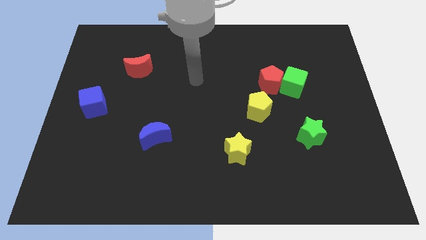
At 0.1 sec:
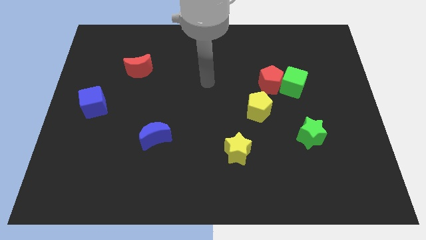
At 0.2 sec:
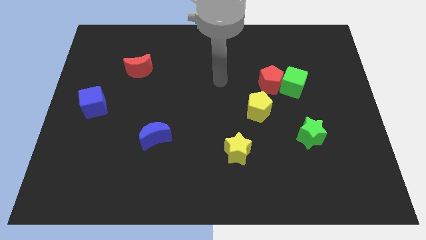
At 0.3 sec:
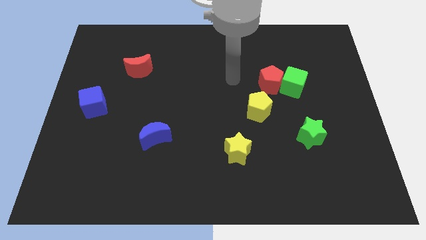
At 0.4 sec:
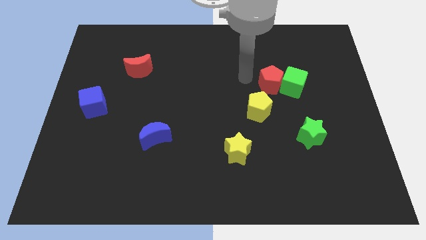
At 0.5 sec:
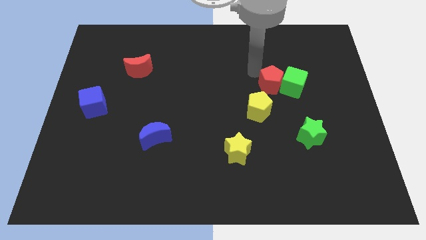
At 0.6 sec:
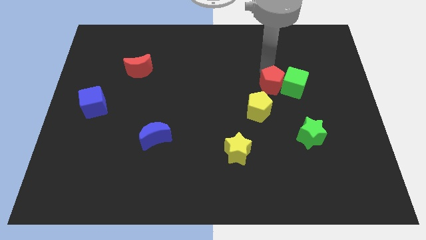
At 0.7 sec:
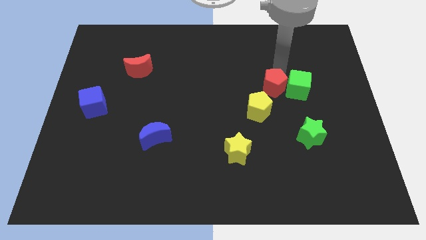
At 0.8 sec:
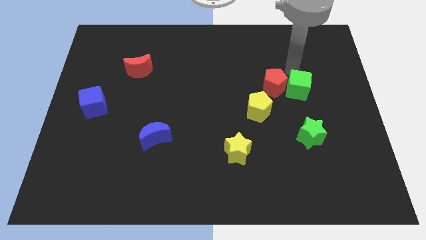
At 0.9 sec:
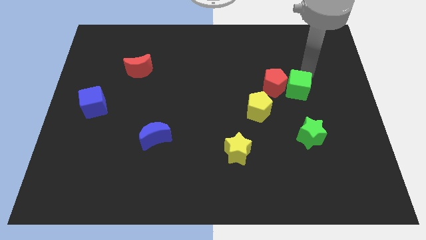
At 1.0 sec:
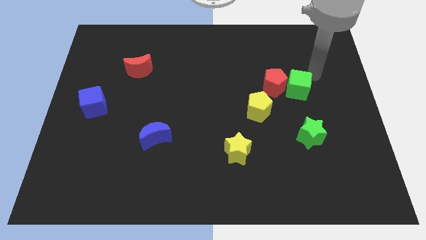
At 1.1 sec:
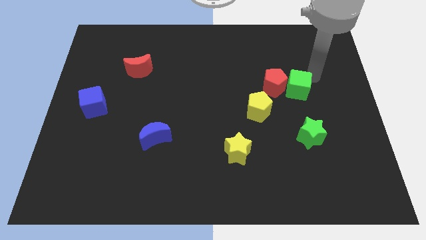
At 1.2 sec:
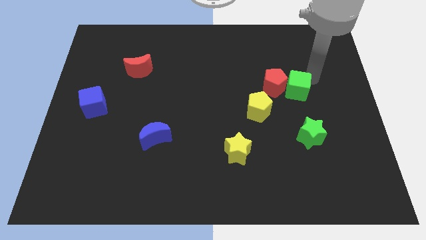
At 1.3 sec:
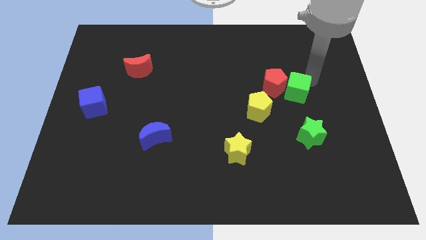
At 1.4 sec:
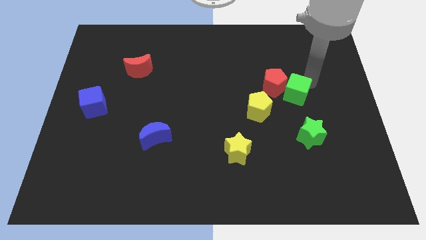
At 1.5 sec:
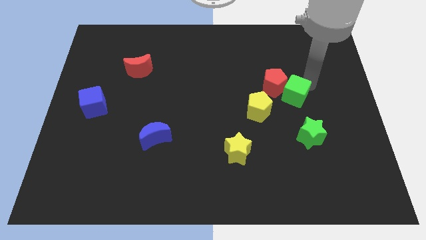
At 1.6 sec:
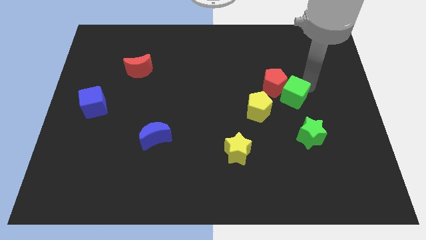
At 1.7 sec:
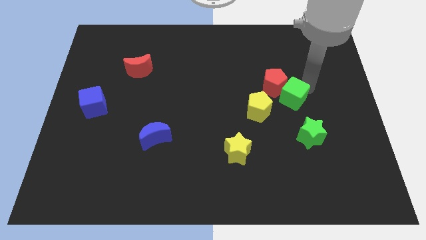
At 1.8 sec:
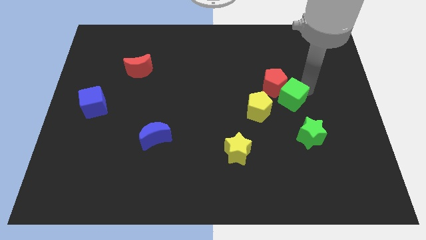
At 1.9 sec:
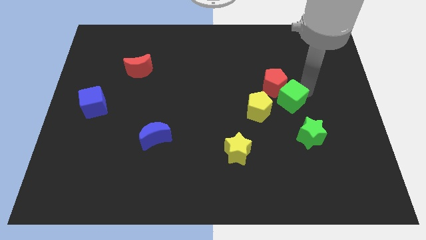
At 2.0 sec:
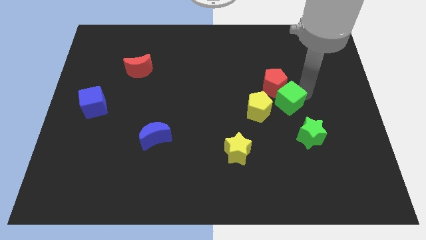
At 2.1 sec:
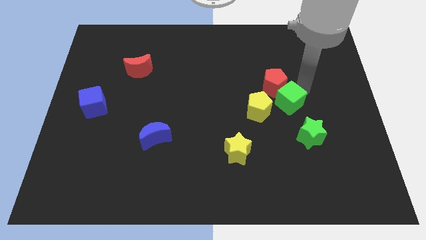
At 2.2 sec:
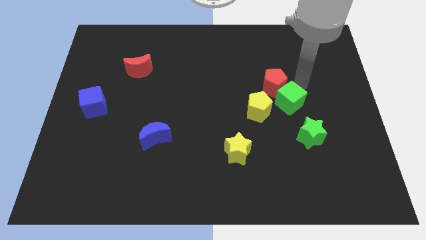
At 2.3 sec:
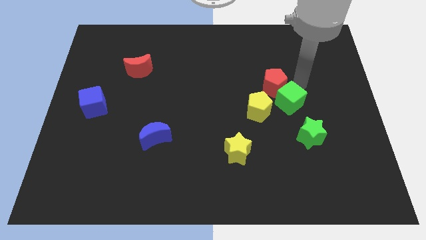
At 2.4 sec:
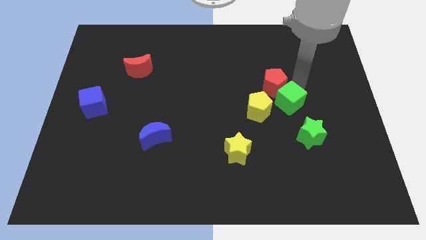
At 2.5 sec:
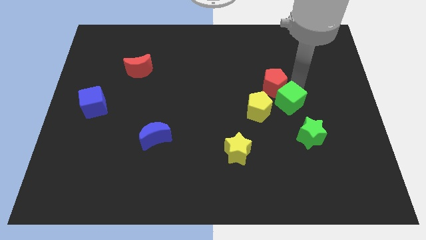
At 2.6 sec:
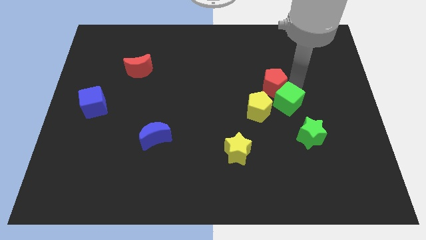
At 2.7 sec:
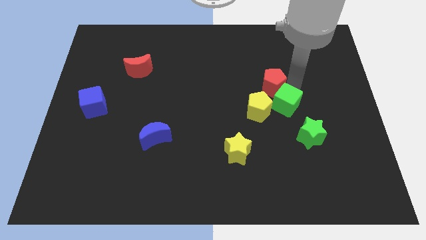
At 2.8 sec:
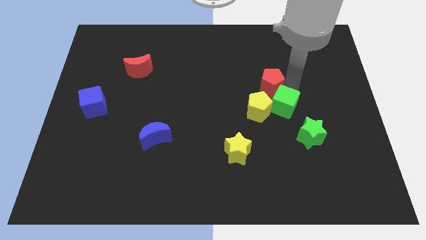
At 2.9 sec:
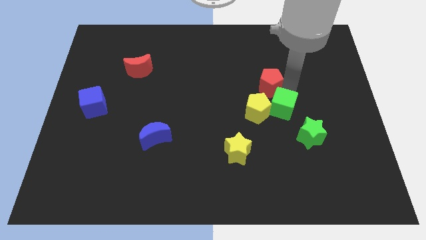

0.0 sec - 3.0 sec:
slightly move the green cube downwards and then left

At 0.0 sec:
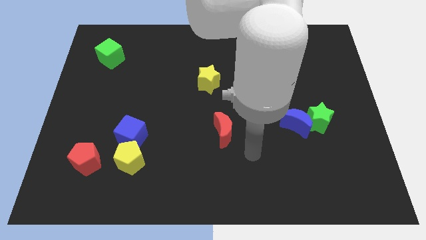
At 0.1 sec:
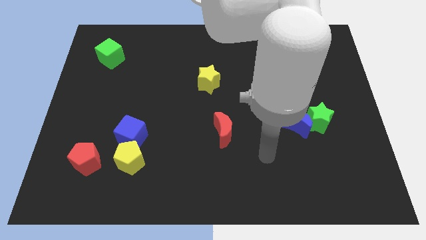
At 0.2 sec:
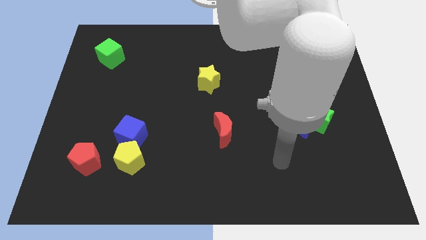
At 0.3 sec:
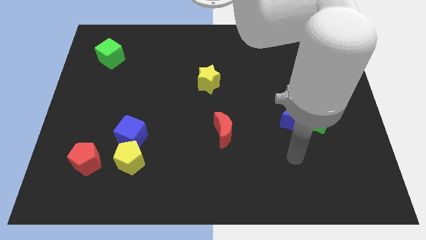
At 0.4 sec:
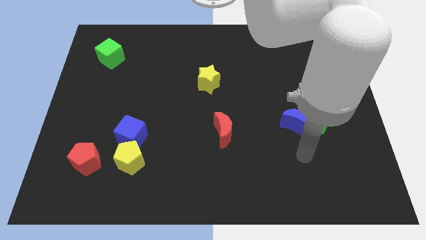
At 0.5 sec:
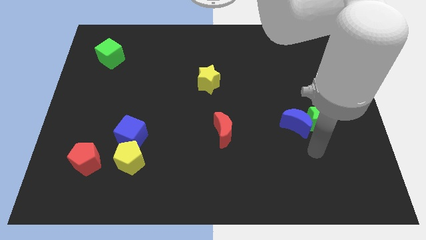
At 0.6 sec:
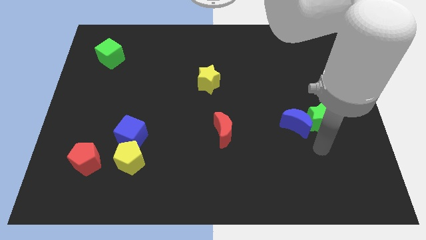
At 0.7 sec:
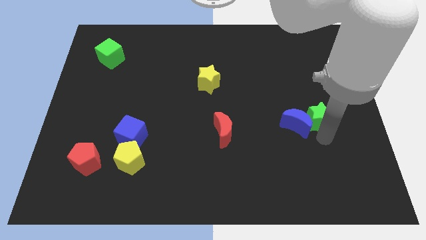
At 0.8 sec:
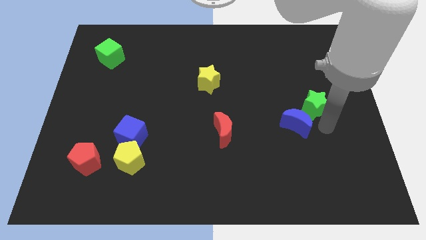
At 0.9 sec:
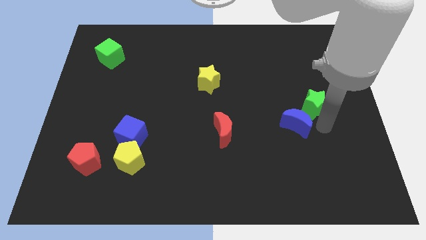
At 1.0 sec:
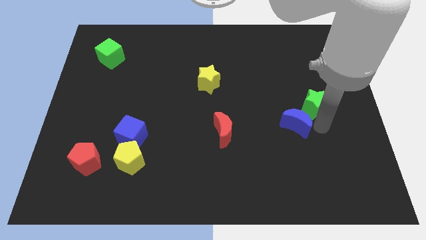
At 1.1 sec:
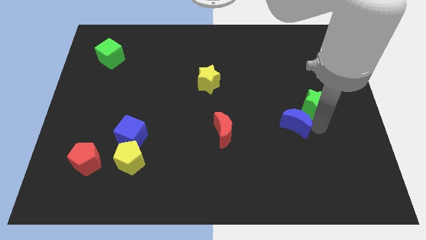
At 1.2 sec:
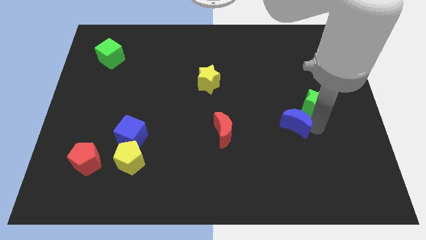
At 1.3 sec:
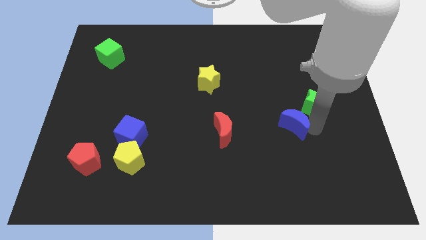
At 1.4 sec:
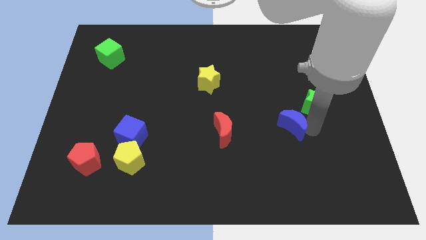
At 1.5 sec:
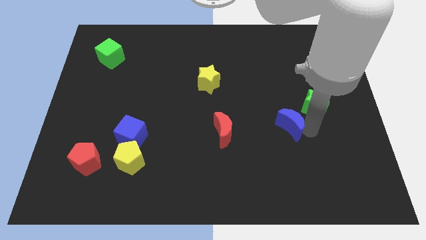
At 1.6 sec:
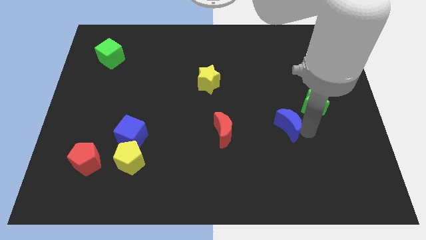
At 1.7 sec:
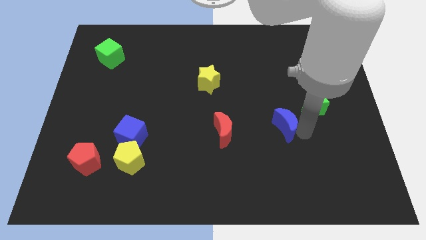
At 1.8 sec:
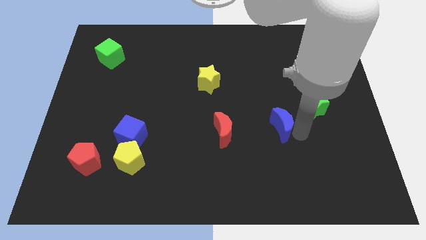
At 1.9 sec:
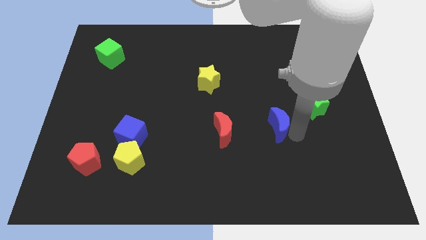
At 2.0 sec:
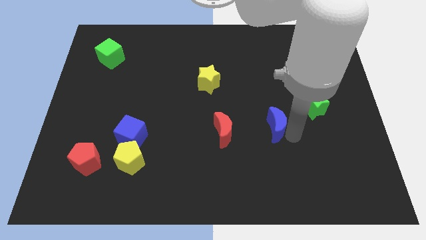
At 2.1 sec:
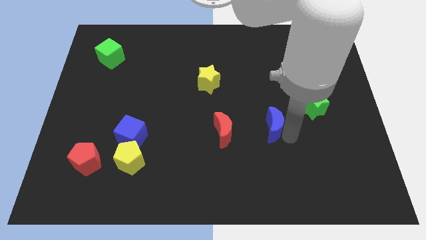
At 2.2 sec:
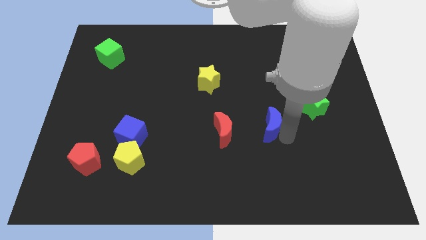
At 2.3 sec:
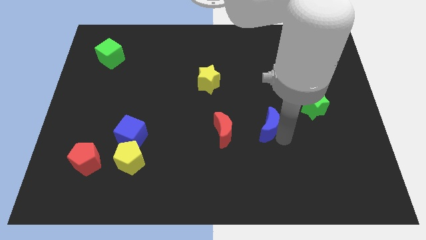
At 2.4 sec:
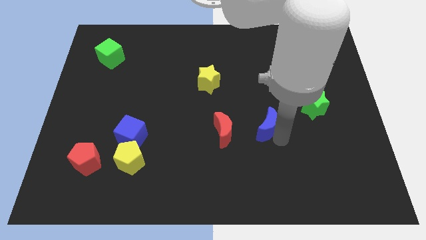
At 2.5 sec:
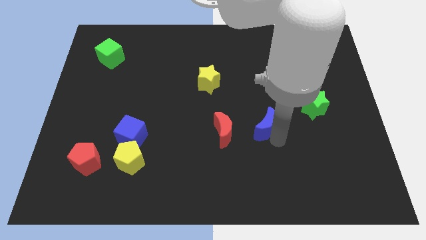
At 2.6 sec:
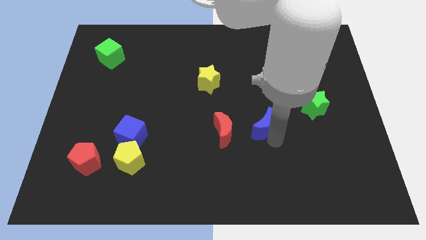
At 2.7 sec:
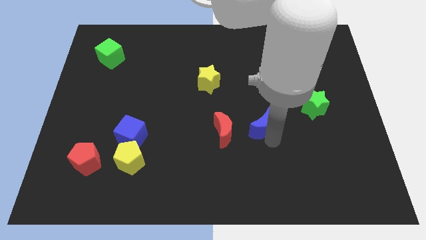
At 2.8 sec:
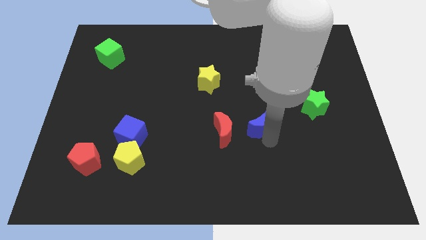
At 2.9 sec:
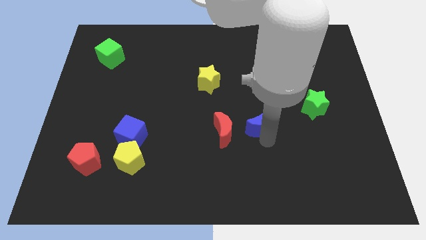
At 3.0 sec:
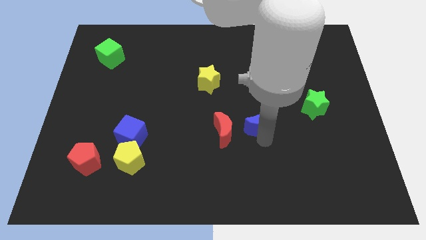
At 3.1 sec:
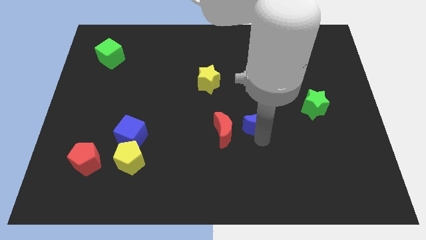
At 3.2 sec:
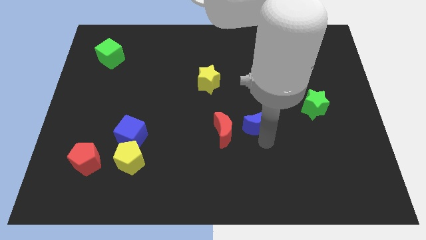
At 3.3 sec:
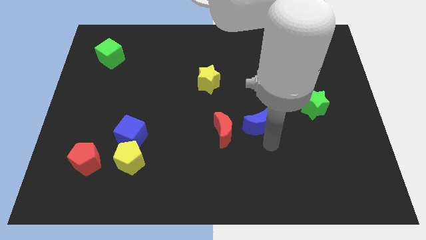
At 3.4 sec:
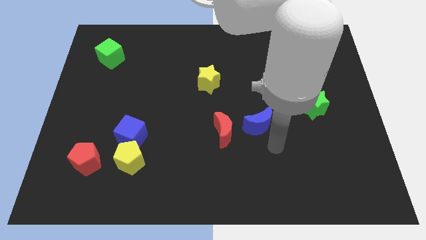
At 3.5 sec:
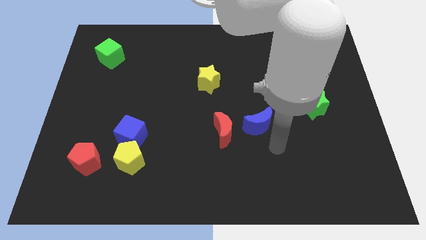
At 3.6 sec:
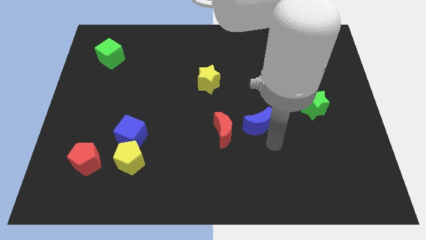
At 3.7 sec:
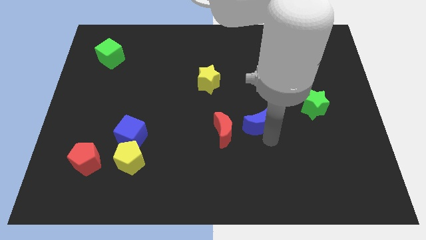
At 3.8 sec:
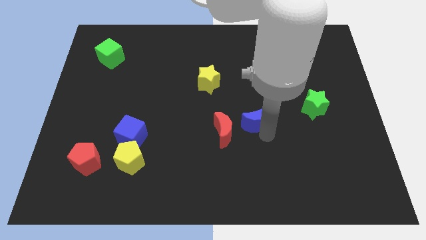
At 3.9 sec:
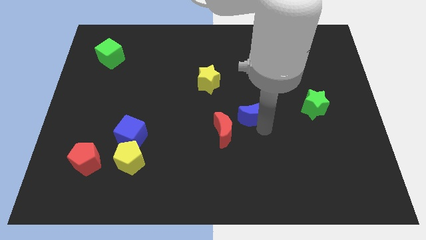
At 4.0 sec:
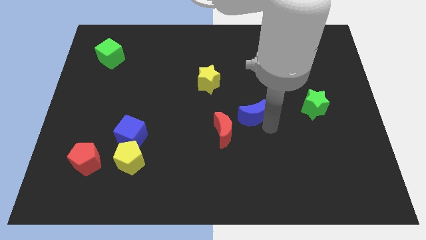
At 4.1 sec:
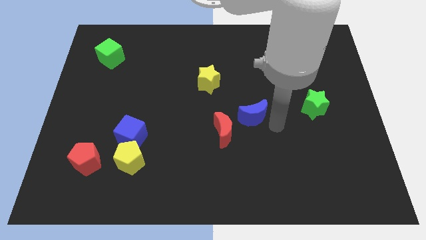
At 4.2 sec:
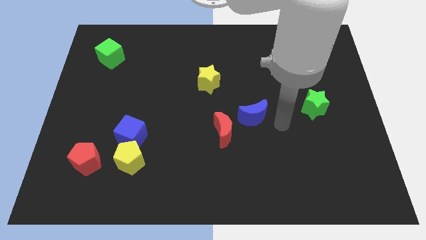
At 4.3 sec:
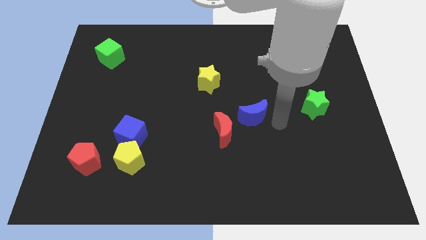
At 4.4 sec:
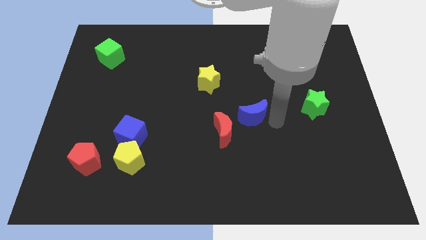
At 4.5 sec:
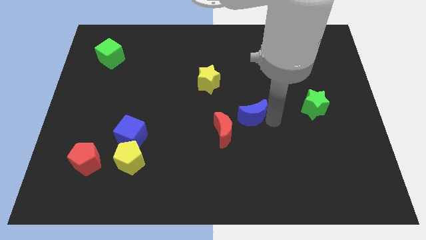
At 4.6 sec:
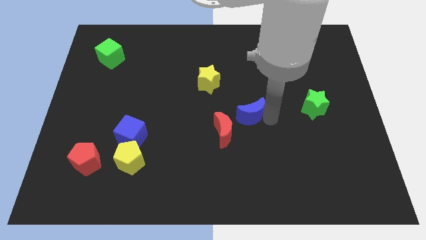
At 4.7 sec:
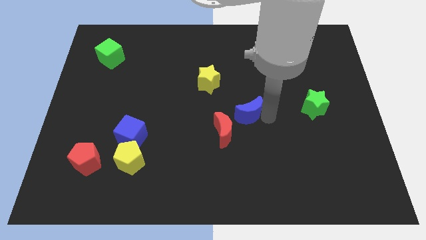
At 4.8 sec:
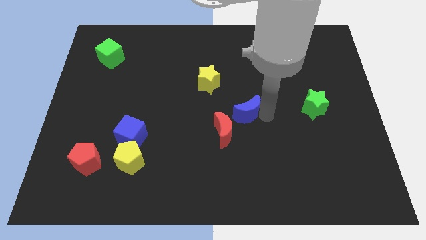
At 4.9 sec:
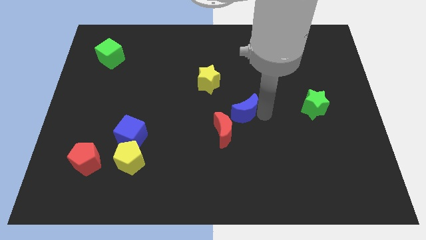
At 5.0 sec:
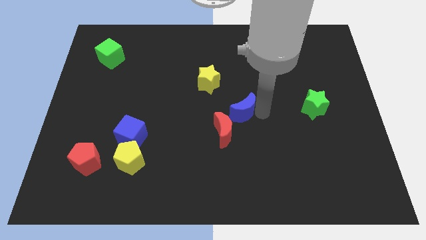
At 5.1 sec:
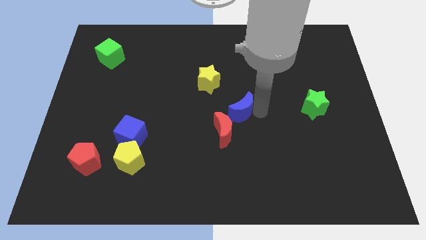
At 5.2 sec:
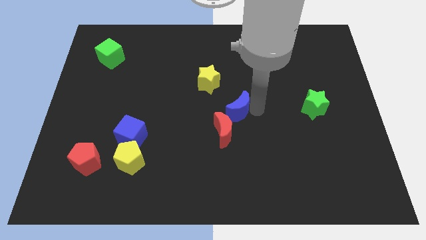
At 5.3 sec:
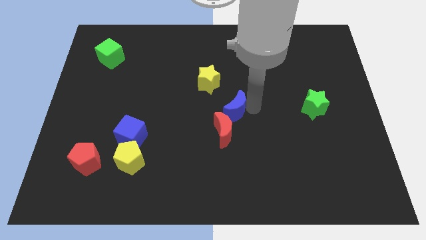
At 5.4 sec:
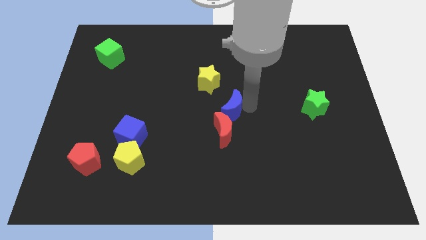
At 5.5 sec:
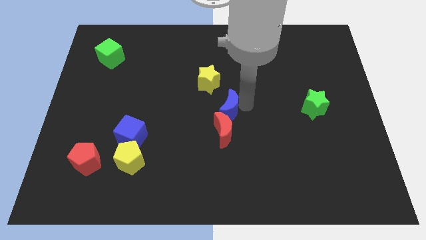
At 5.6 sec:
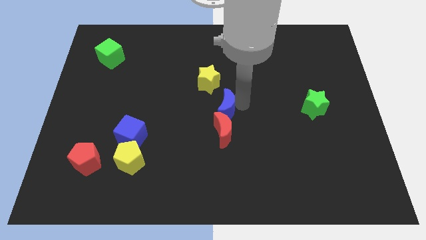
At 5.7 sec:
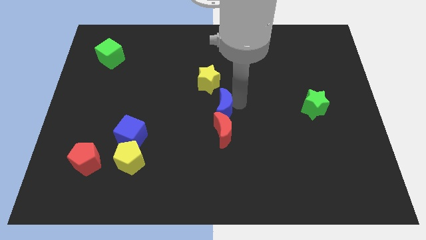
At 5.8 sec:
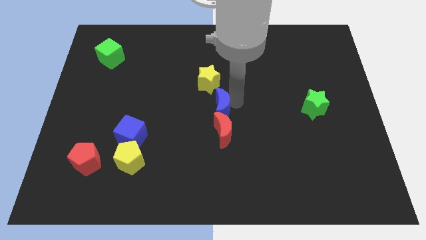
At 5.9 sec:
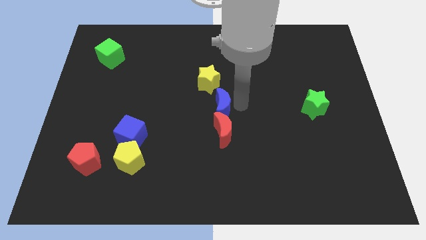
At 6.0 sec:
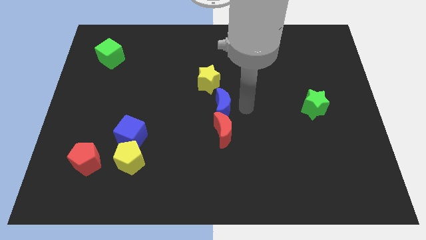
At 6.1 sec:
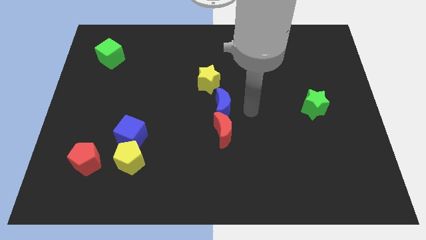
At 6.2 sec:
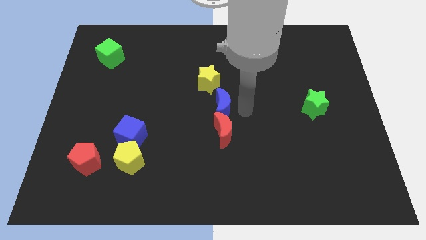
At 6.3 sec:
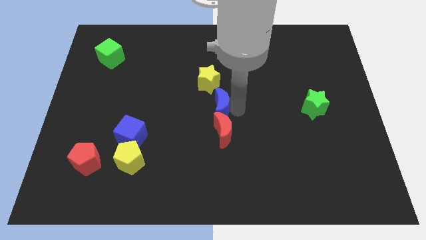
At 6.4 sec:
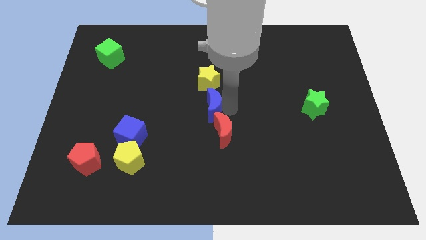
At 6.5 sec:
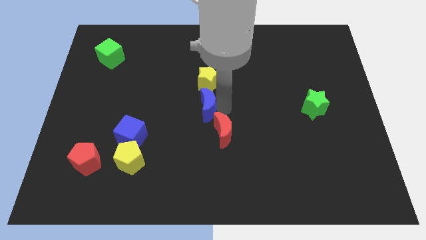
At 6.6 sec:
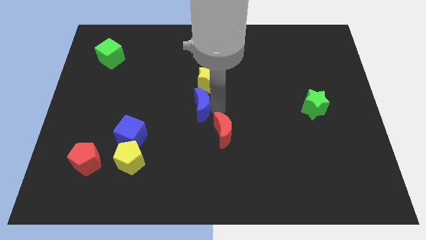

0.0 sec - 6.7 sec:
push the blue moon to the left
